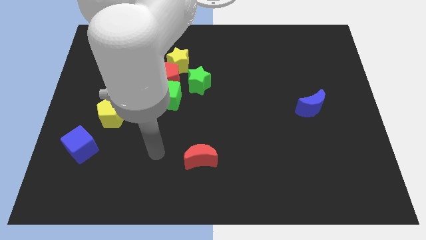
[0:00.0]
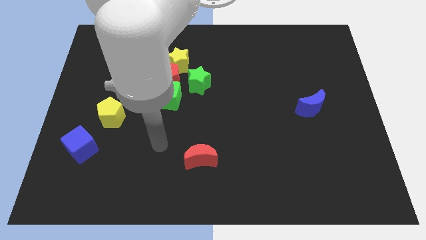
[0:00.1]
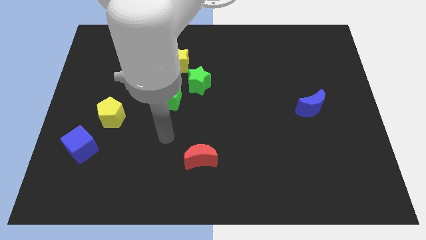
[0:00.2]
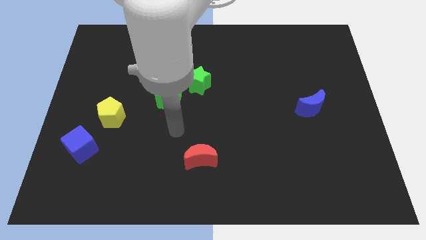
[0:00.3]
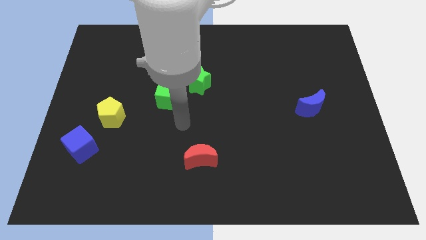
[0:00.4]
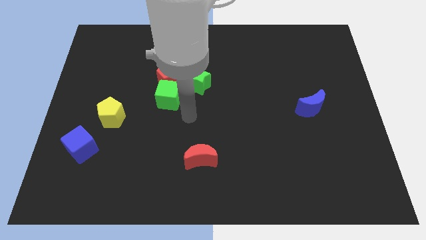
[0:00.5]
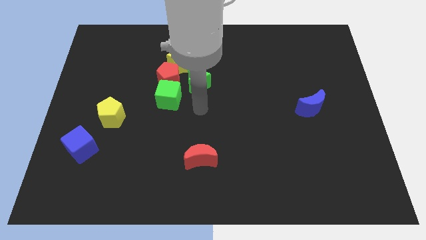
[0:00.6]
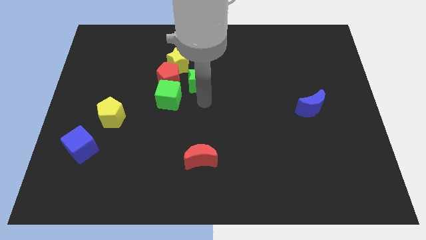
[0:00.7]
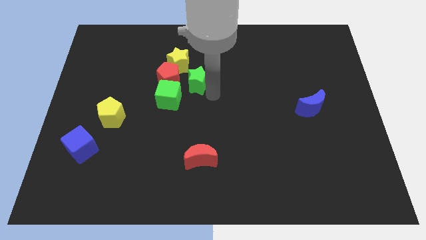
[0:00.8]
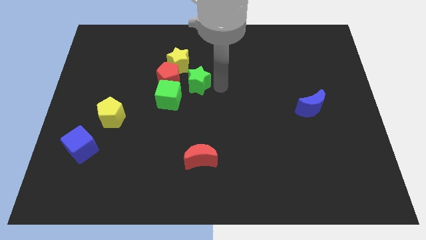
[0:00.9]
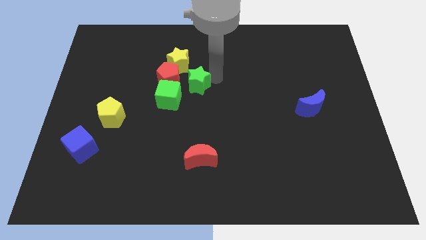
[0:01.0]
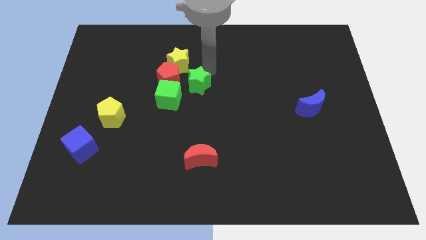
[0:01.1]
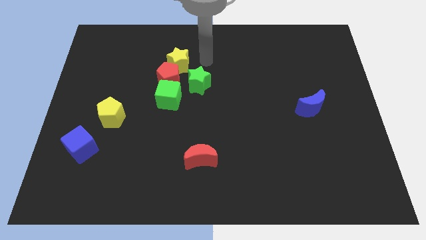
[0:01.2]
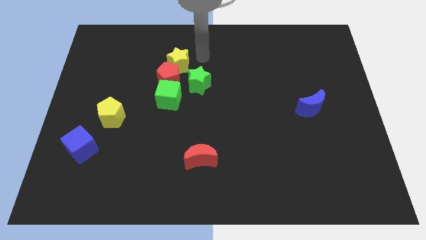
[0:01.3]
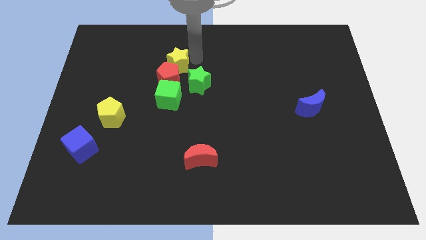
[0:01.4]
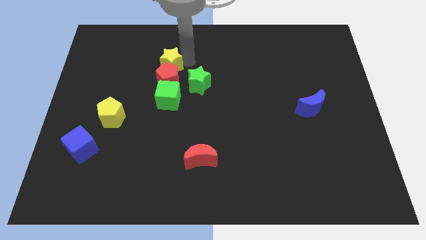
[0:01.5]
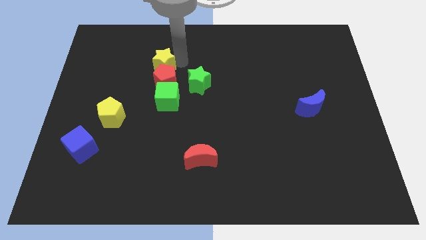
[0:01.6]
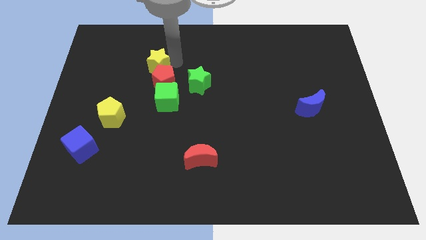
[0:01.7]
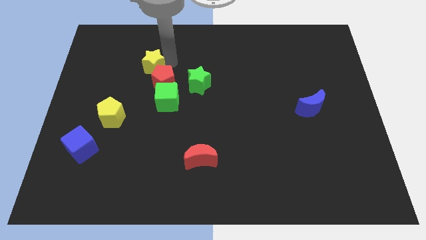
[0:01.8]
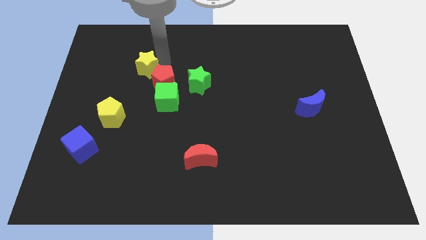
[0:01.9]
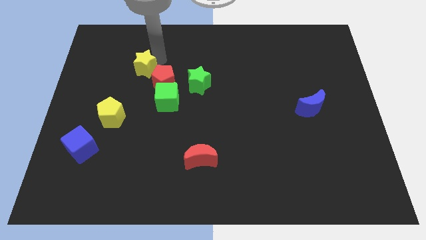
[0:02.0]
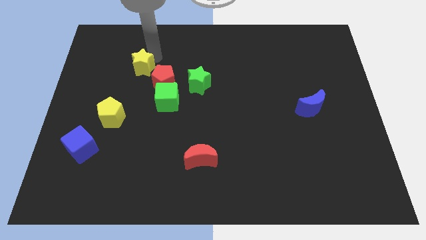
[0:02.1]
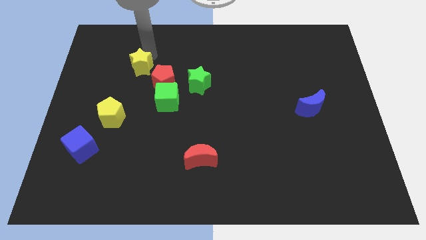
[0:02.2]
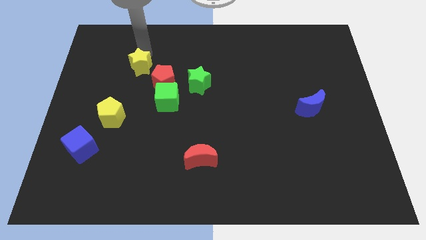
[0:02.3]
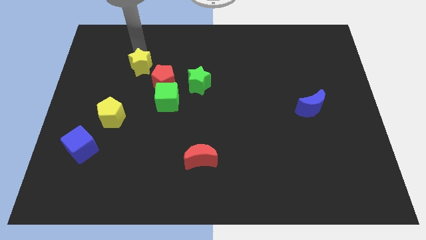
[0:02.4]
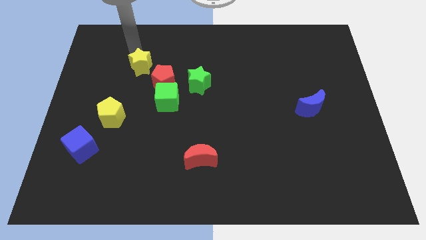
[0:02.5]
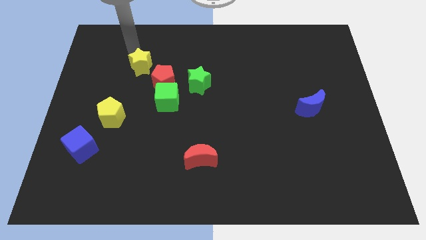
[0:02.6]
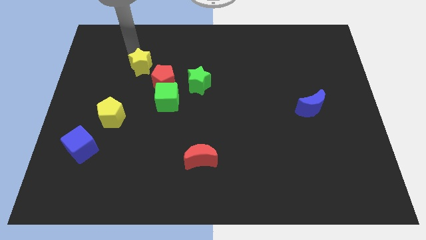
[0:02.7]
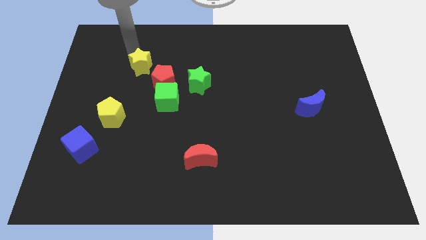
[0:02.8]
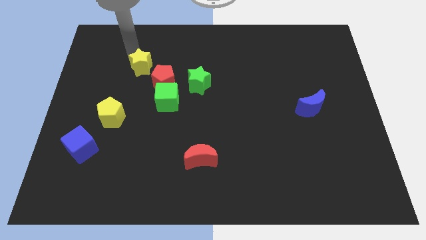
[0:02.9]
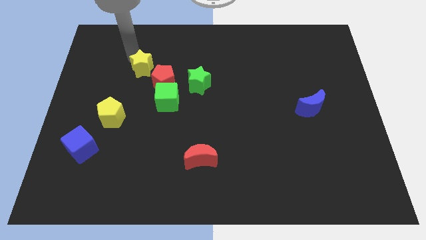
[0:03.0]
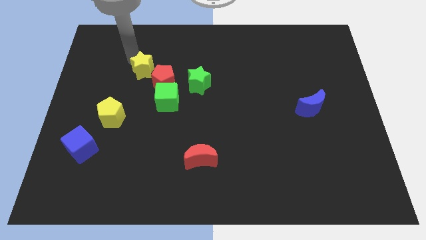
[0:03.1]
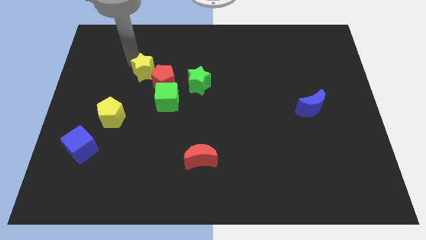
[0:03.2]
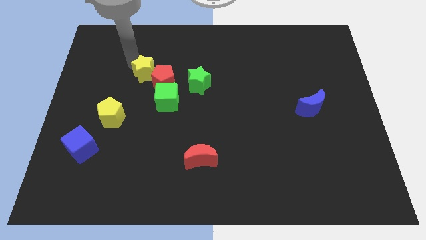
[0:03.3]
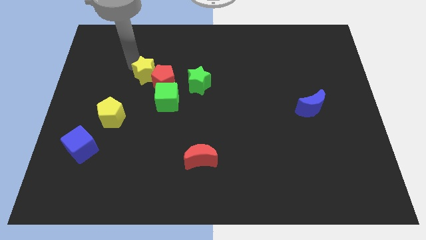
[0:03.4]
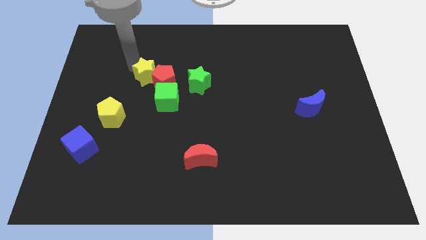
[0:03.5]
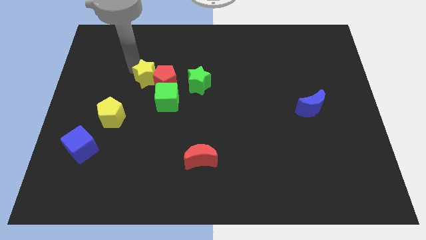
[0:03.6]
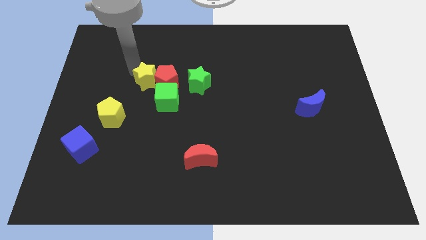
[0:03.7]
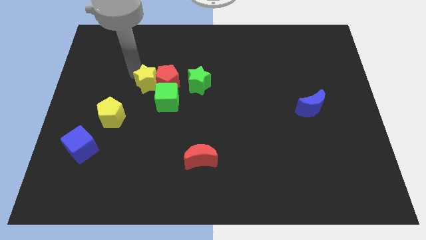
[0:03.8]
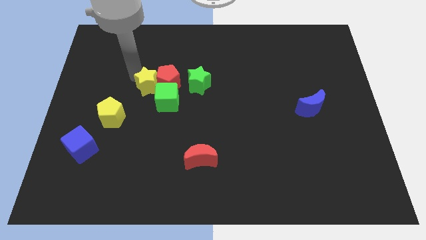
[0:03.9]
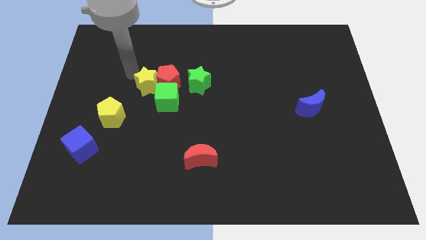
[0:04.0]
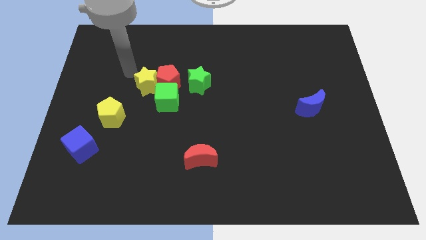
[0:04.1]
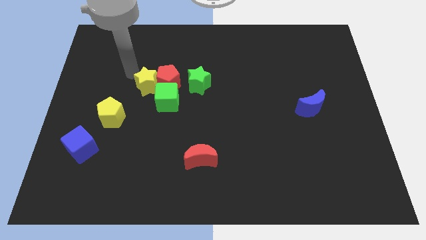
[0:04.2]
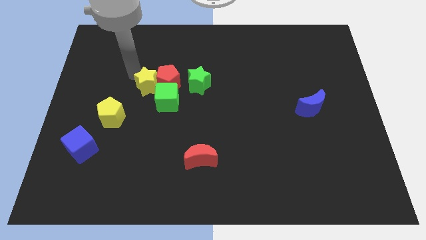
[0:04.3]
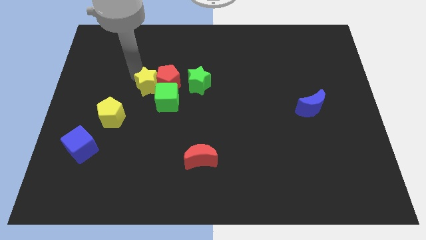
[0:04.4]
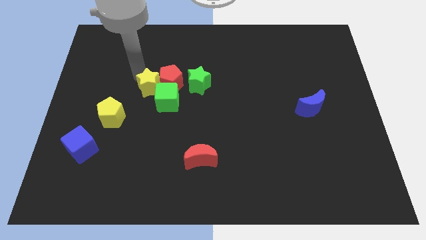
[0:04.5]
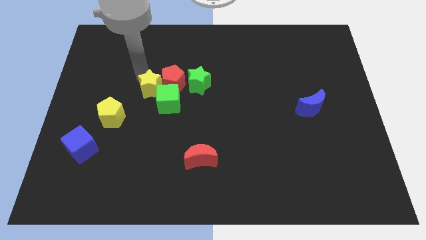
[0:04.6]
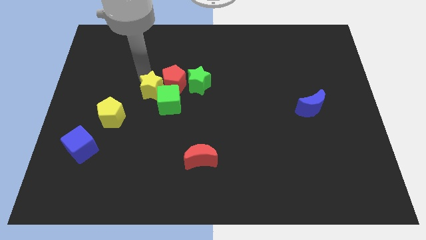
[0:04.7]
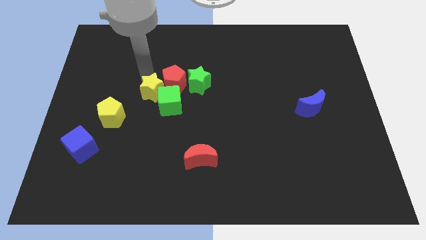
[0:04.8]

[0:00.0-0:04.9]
push the yellow star next to the green cube

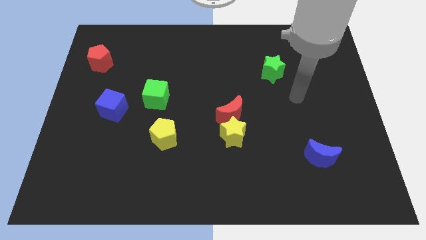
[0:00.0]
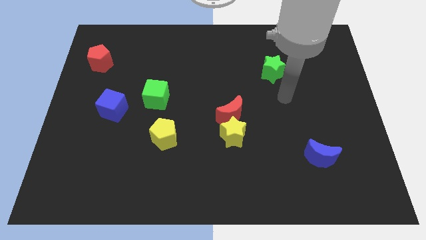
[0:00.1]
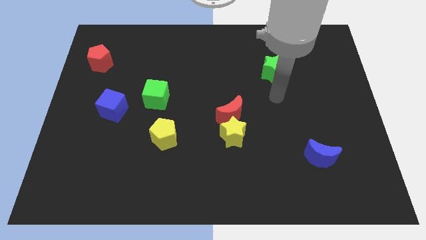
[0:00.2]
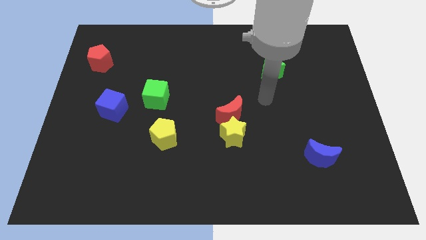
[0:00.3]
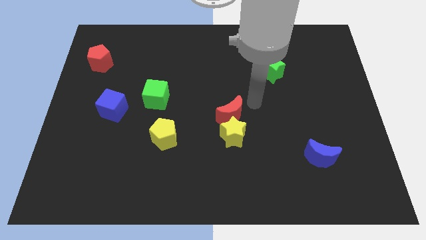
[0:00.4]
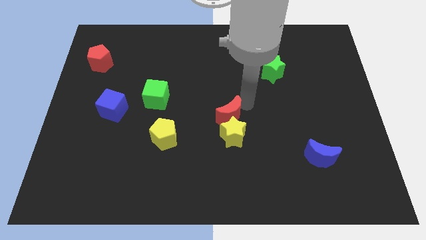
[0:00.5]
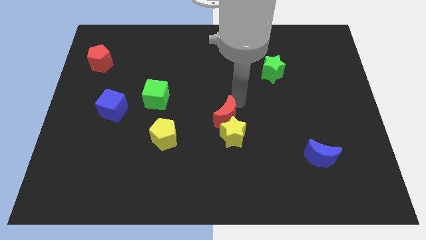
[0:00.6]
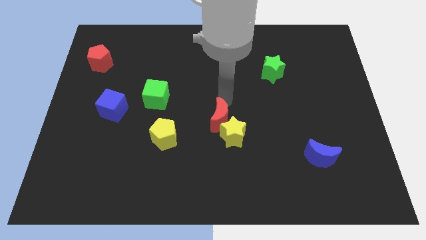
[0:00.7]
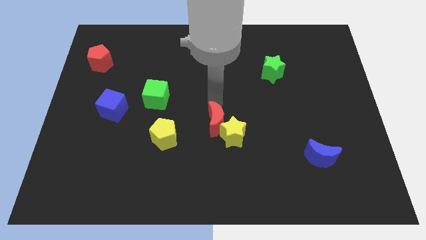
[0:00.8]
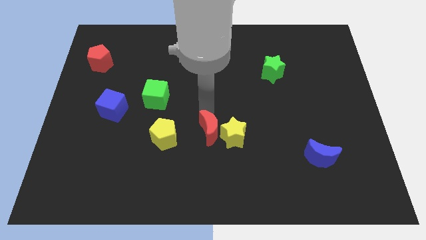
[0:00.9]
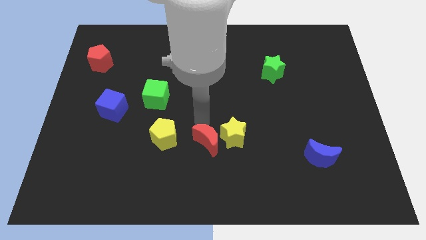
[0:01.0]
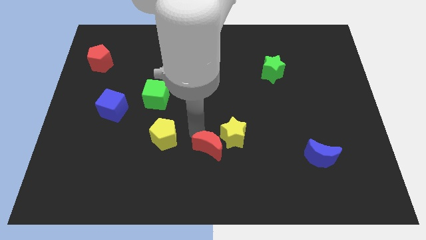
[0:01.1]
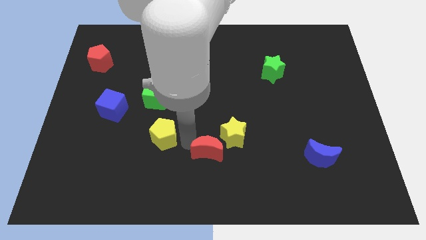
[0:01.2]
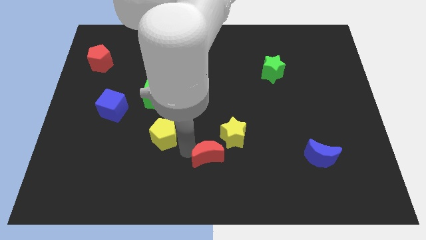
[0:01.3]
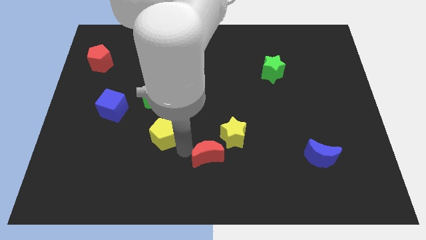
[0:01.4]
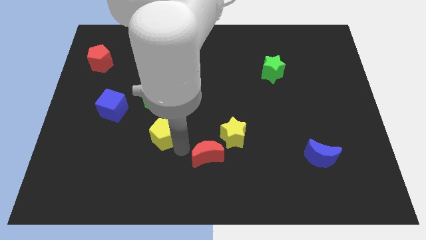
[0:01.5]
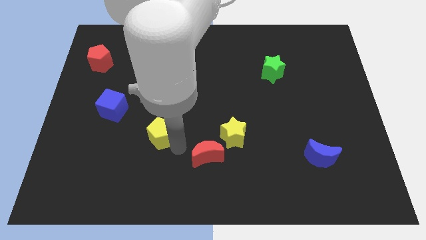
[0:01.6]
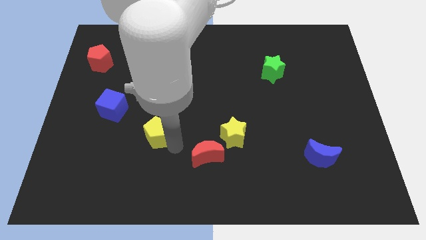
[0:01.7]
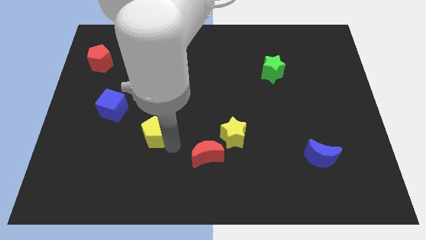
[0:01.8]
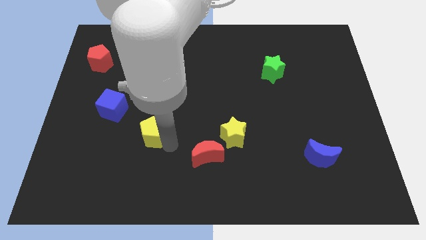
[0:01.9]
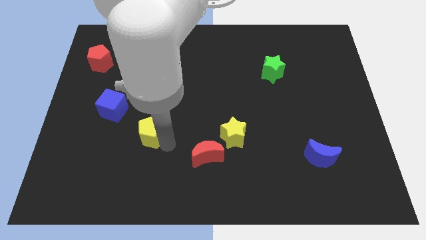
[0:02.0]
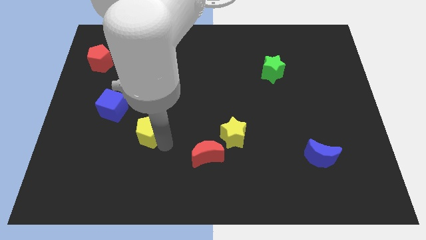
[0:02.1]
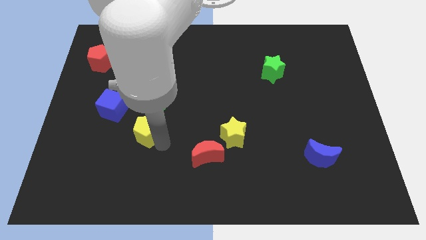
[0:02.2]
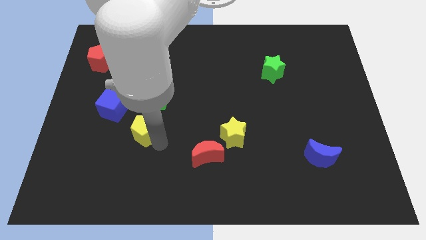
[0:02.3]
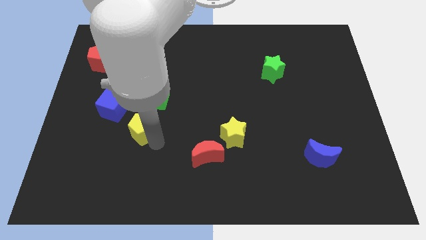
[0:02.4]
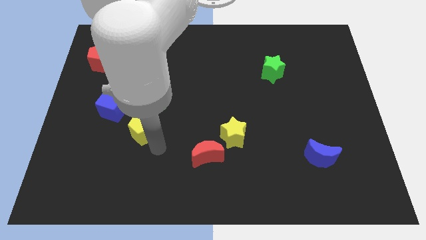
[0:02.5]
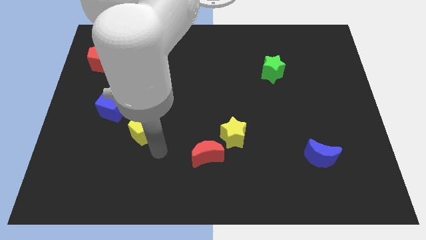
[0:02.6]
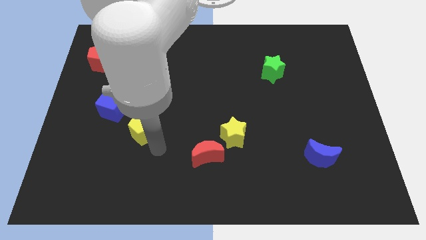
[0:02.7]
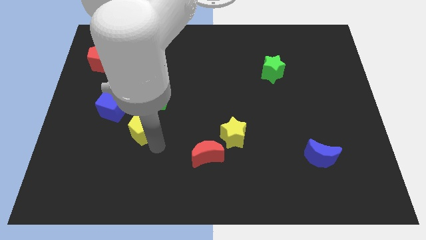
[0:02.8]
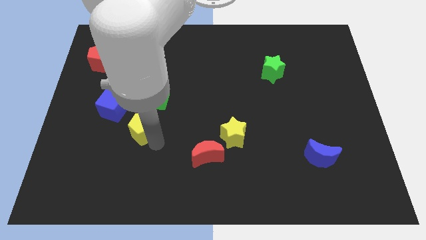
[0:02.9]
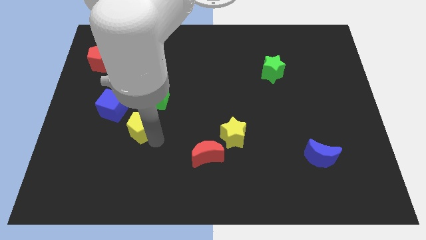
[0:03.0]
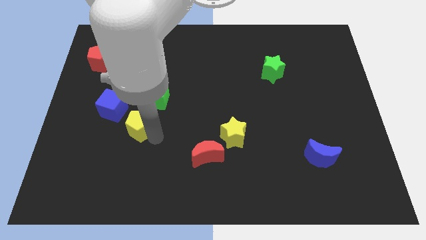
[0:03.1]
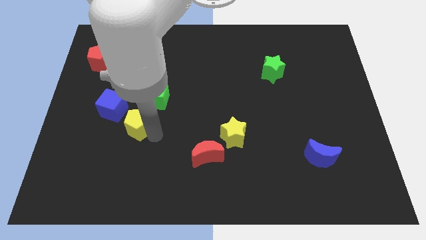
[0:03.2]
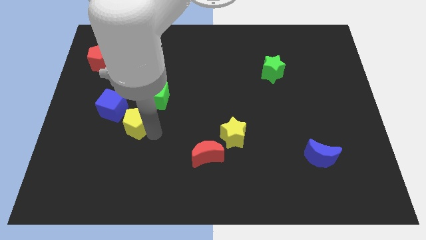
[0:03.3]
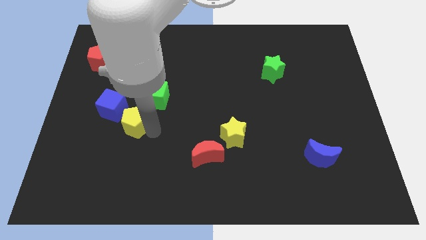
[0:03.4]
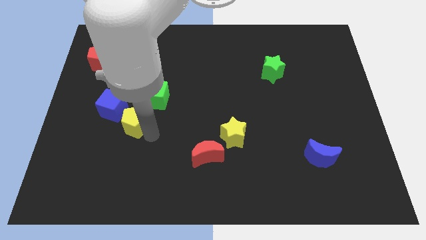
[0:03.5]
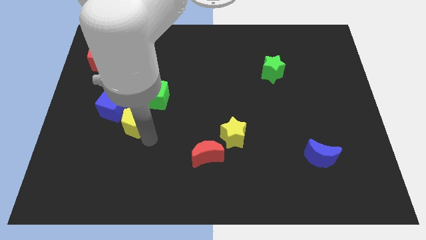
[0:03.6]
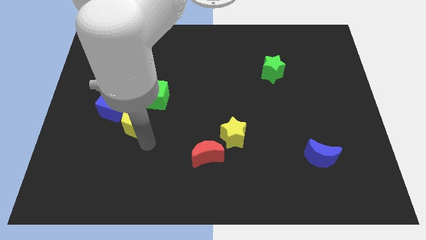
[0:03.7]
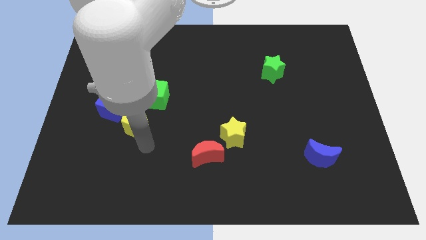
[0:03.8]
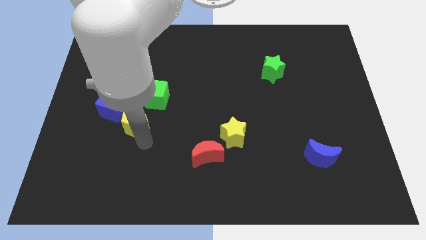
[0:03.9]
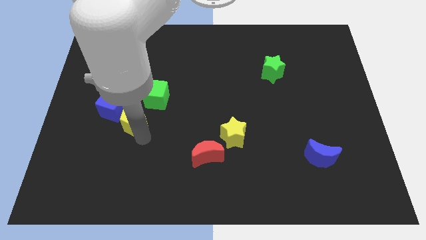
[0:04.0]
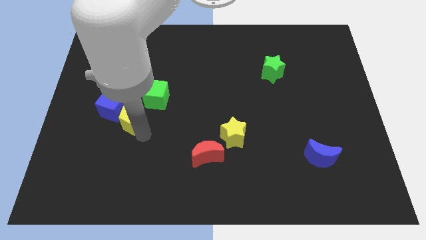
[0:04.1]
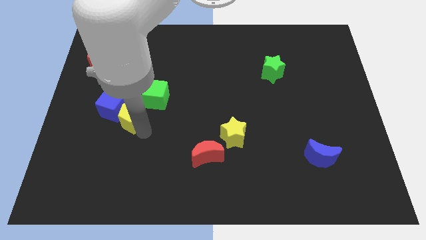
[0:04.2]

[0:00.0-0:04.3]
slide the yellow pentagon to the blue cube
